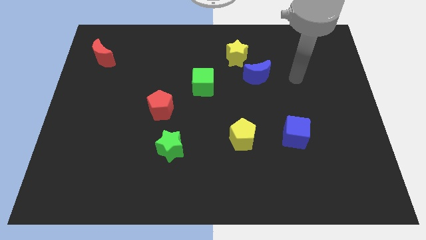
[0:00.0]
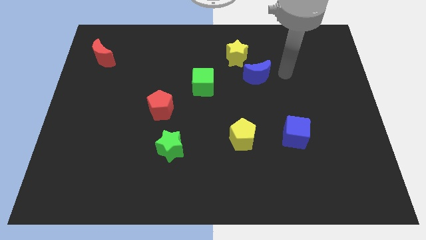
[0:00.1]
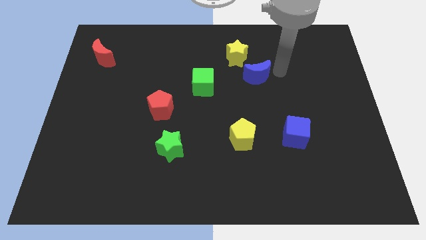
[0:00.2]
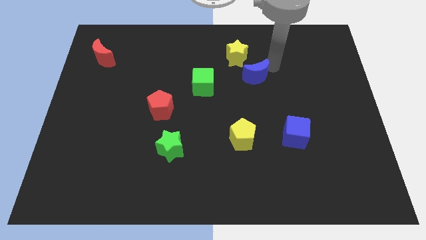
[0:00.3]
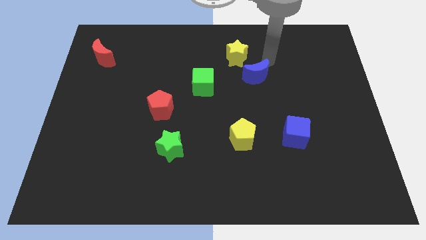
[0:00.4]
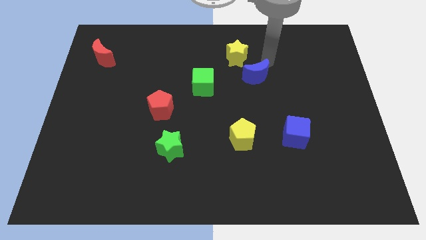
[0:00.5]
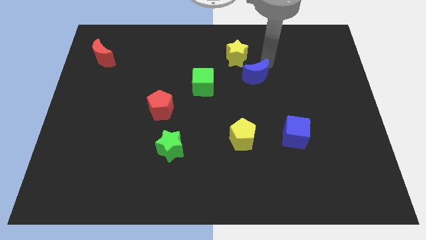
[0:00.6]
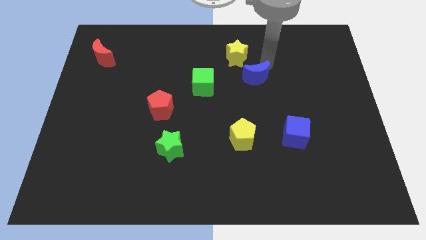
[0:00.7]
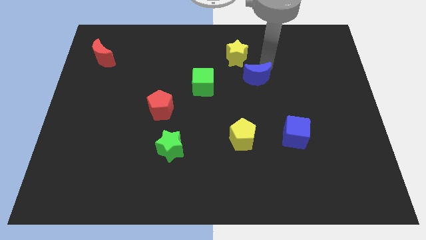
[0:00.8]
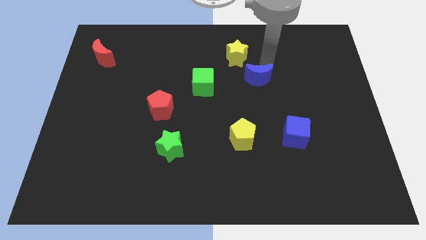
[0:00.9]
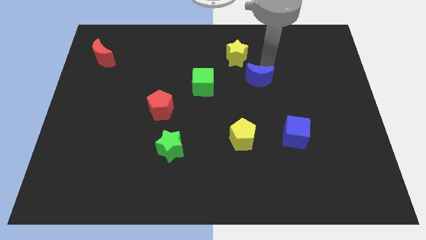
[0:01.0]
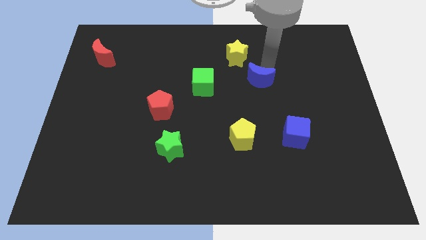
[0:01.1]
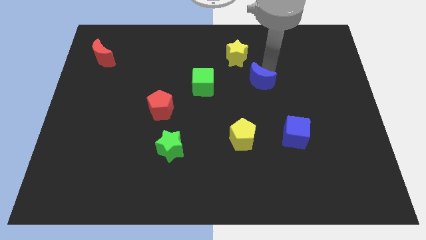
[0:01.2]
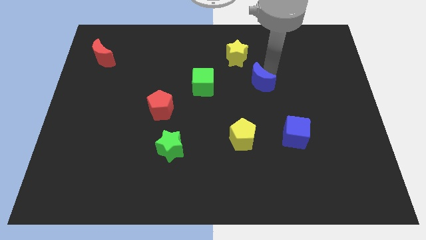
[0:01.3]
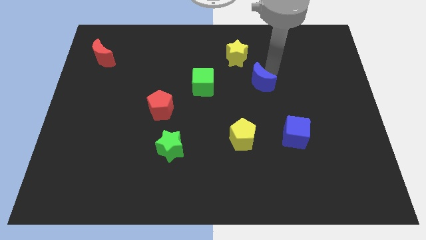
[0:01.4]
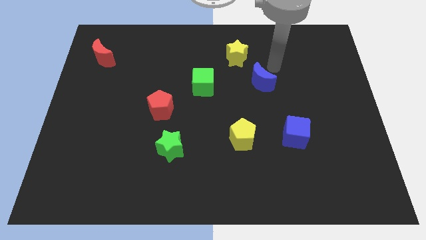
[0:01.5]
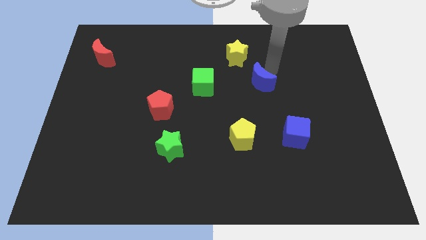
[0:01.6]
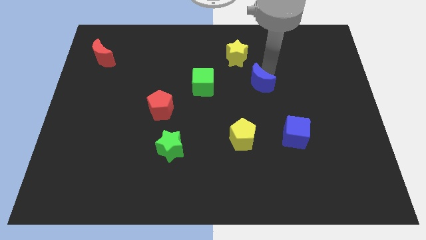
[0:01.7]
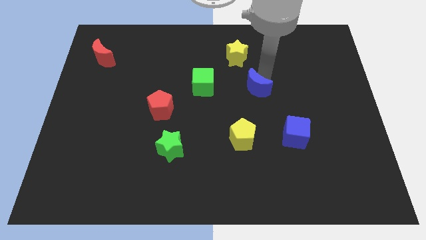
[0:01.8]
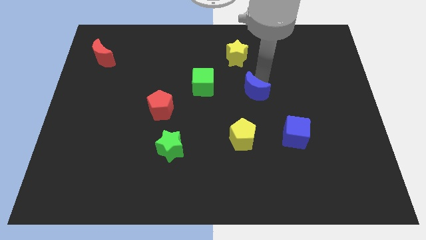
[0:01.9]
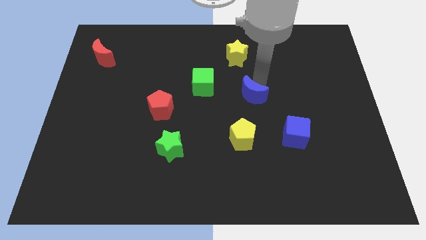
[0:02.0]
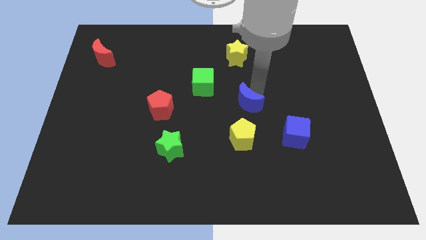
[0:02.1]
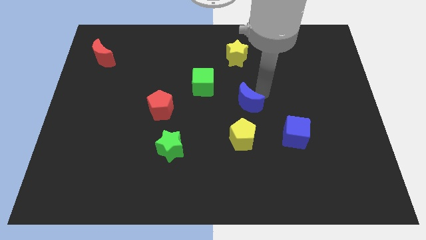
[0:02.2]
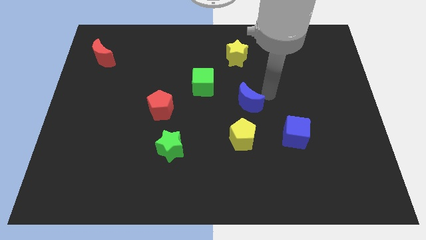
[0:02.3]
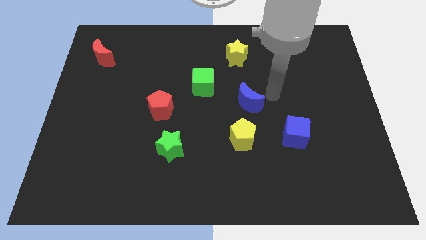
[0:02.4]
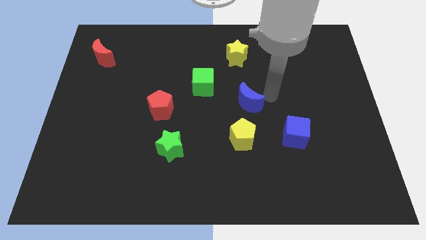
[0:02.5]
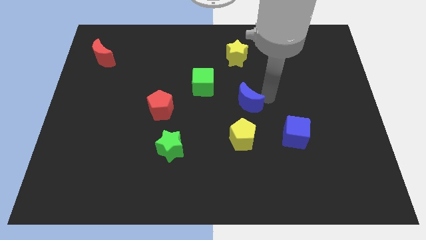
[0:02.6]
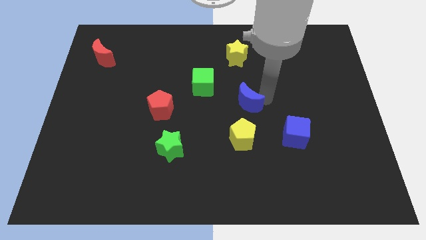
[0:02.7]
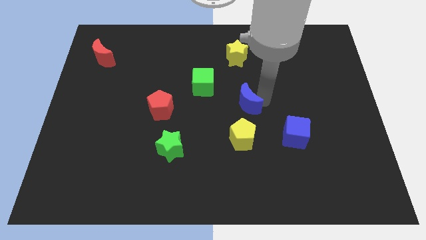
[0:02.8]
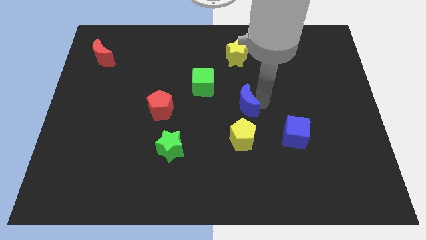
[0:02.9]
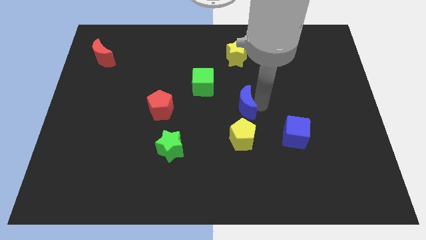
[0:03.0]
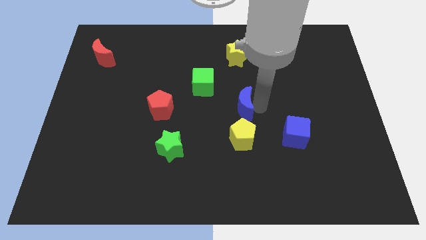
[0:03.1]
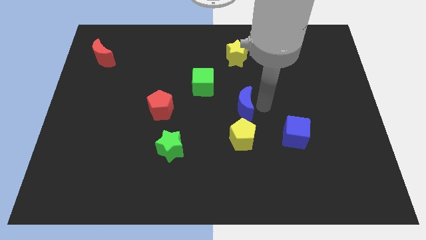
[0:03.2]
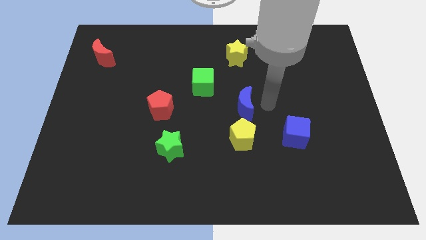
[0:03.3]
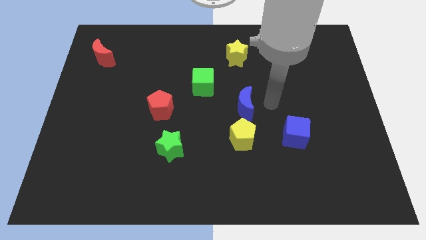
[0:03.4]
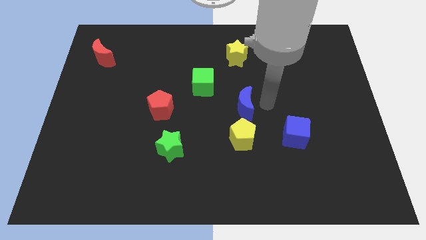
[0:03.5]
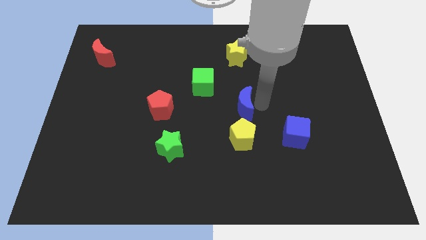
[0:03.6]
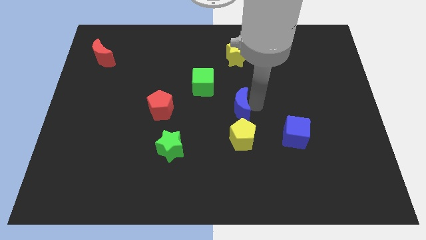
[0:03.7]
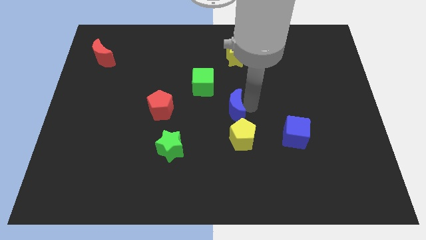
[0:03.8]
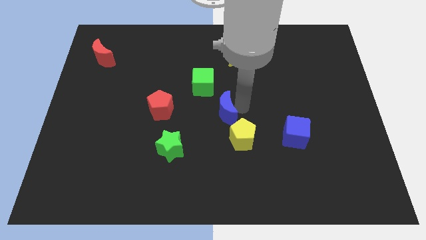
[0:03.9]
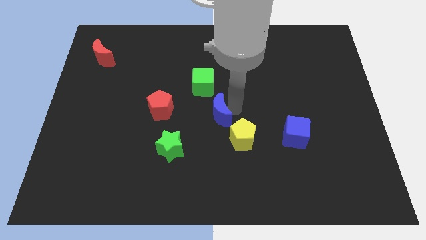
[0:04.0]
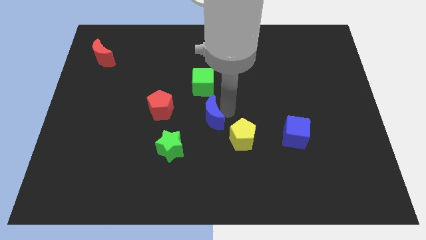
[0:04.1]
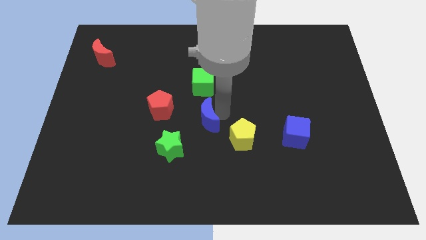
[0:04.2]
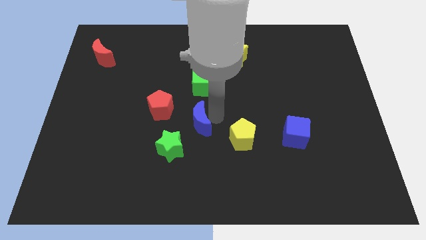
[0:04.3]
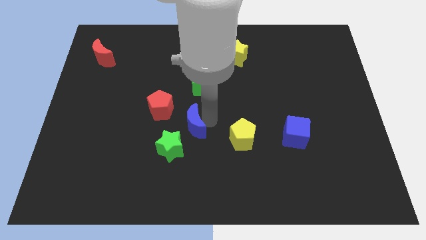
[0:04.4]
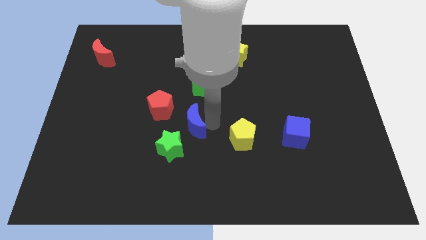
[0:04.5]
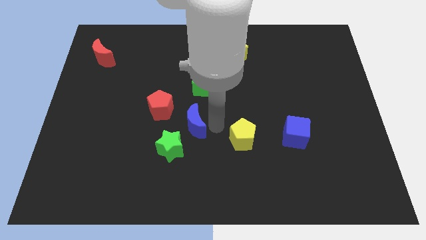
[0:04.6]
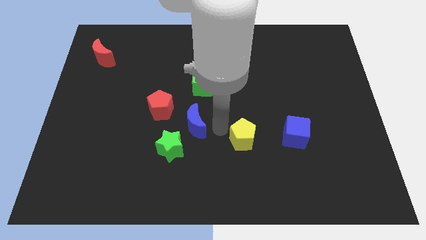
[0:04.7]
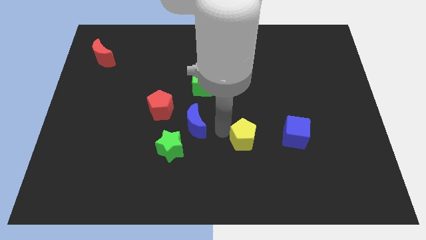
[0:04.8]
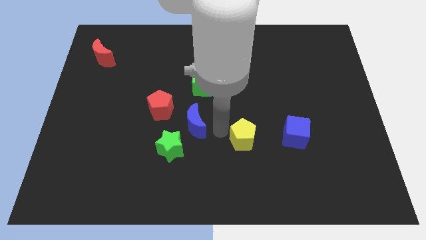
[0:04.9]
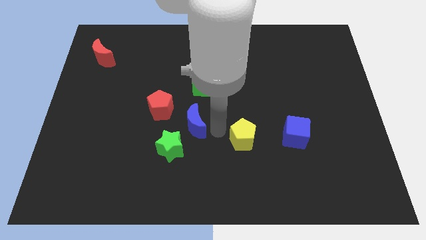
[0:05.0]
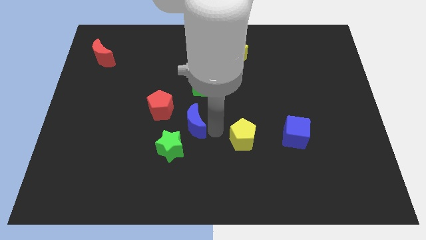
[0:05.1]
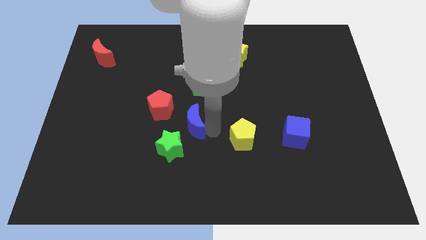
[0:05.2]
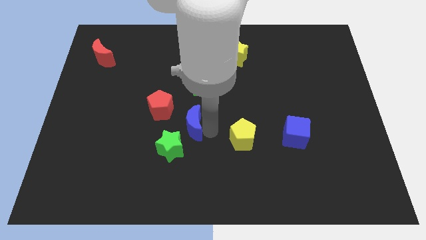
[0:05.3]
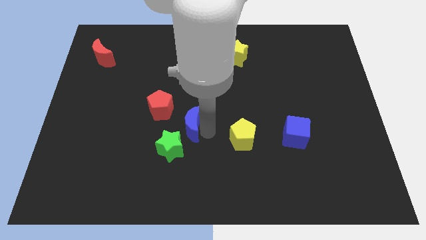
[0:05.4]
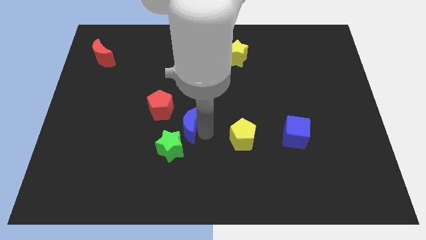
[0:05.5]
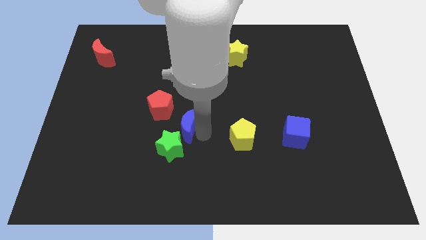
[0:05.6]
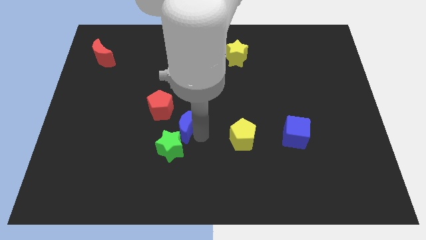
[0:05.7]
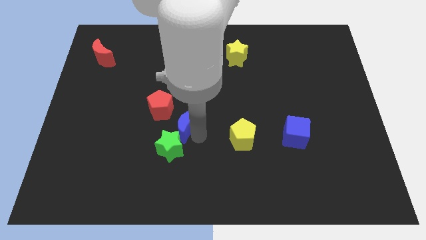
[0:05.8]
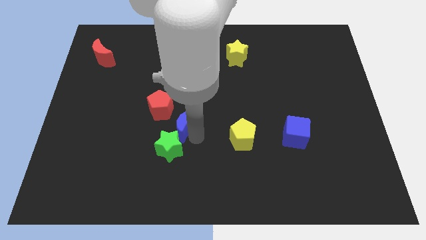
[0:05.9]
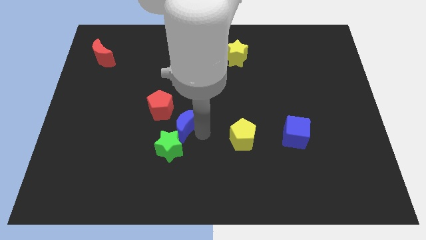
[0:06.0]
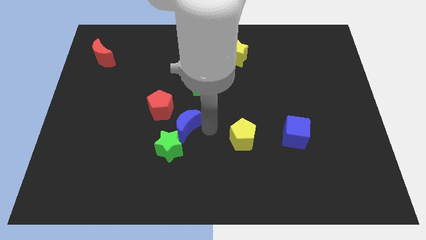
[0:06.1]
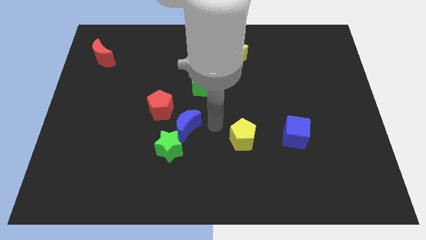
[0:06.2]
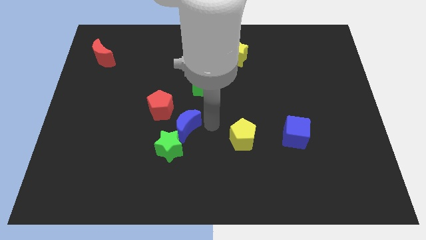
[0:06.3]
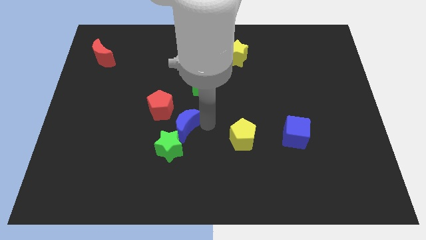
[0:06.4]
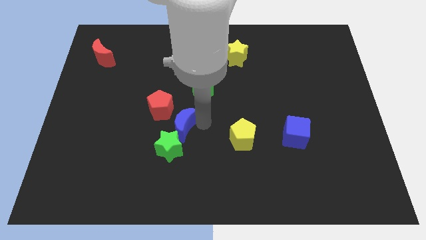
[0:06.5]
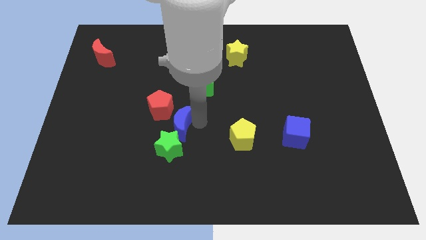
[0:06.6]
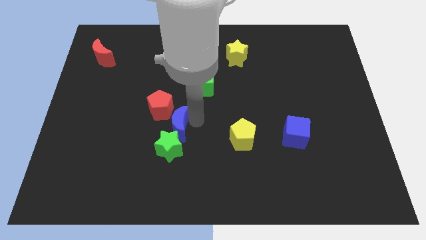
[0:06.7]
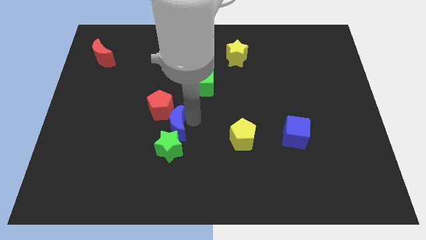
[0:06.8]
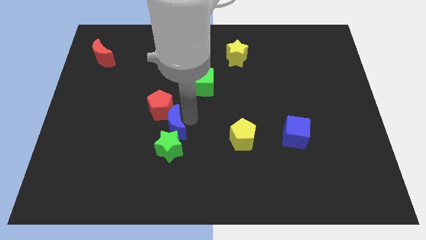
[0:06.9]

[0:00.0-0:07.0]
slide the blue moon to the top left side of the green star
